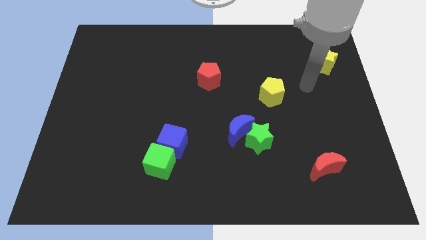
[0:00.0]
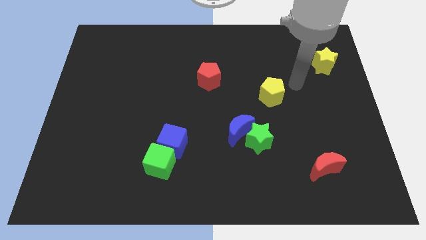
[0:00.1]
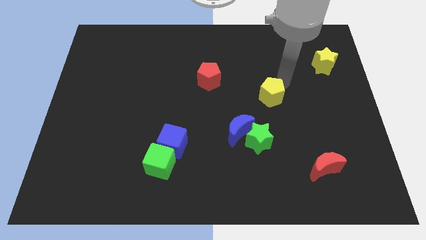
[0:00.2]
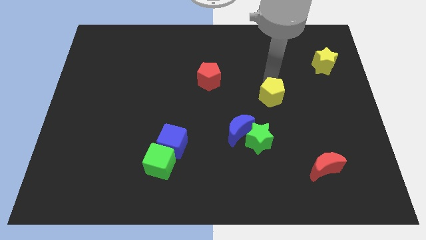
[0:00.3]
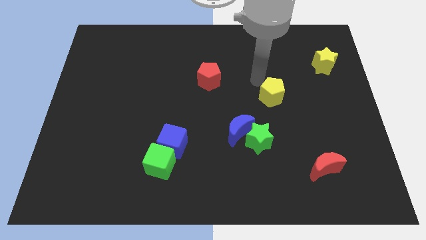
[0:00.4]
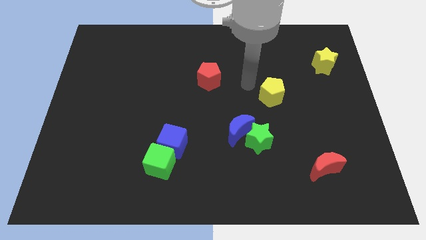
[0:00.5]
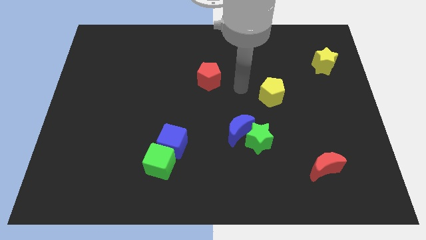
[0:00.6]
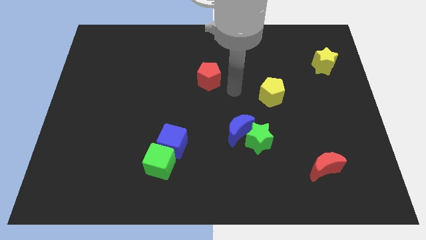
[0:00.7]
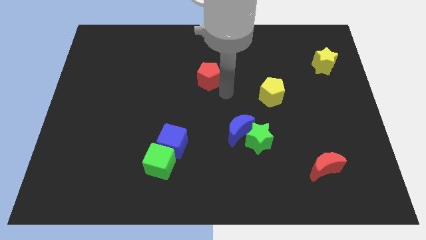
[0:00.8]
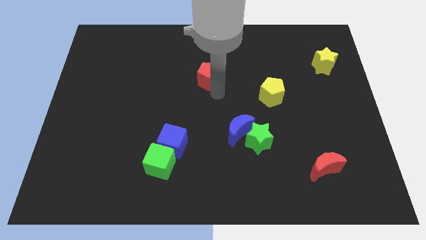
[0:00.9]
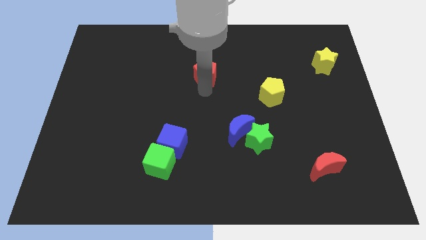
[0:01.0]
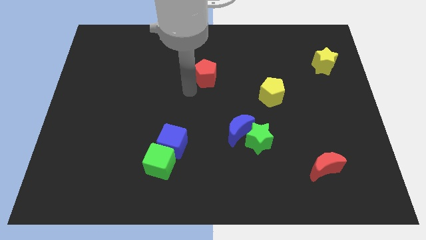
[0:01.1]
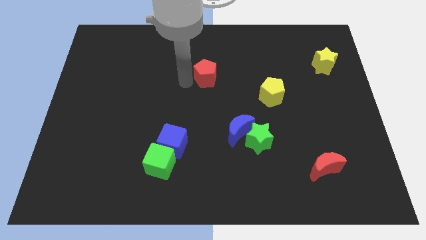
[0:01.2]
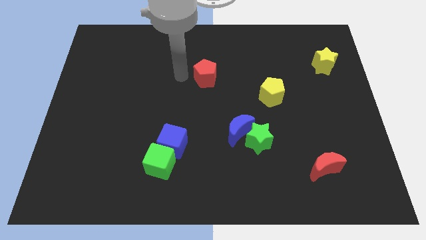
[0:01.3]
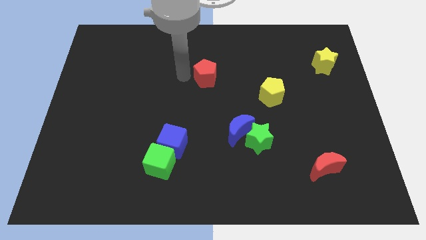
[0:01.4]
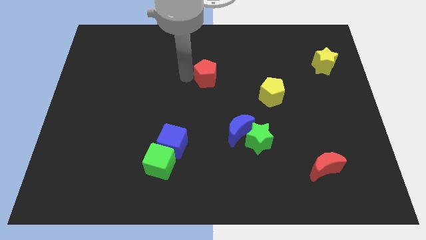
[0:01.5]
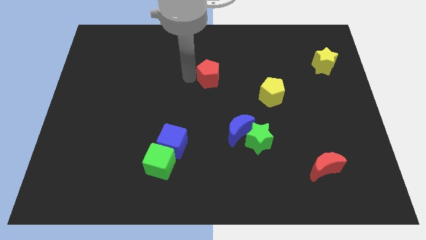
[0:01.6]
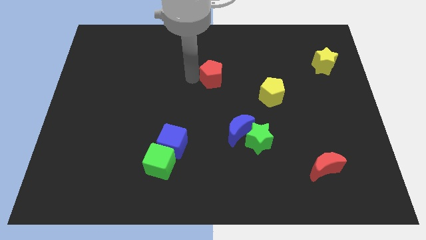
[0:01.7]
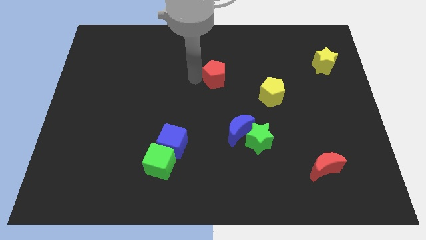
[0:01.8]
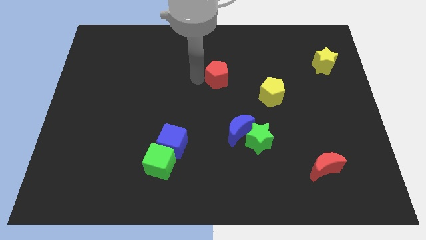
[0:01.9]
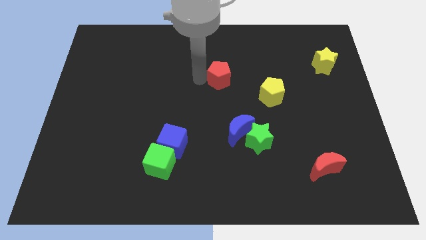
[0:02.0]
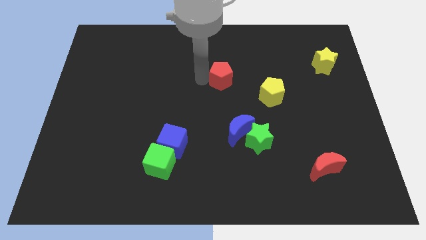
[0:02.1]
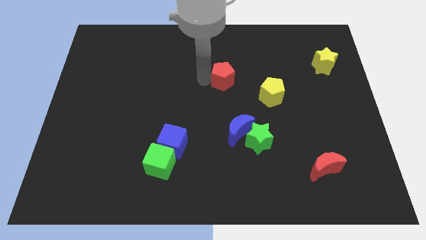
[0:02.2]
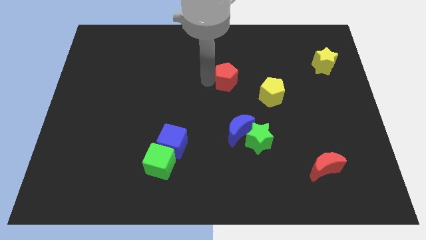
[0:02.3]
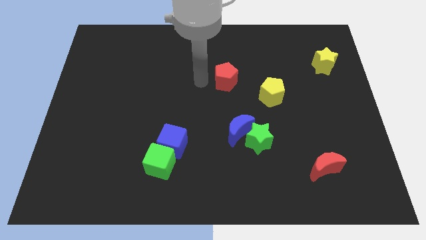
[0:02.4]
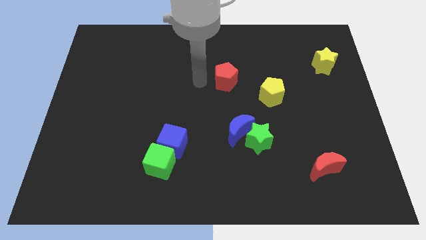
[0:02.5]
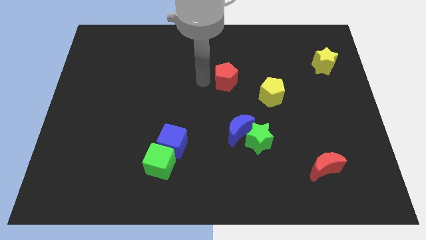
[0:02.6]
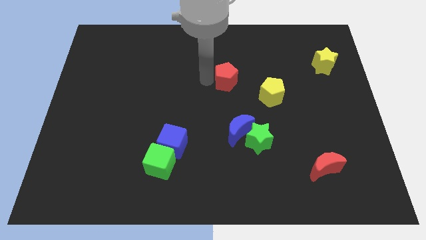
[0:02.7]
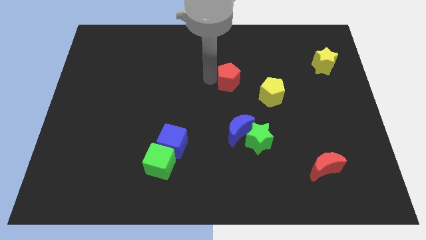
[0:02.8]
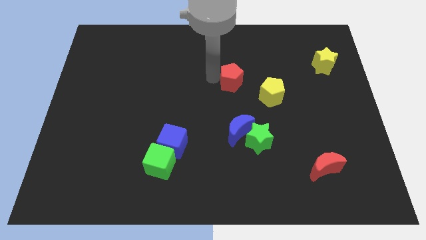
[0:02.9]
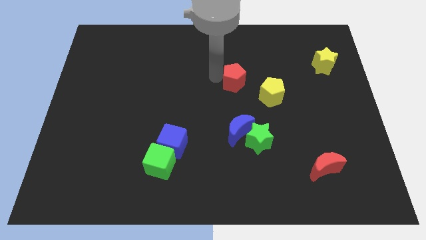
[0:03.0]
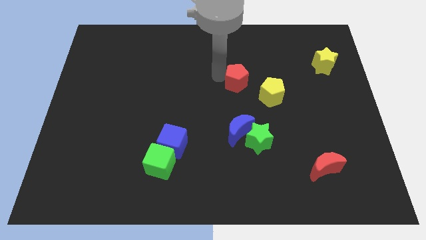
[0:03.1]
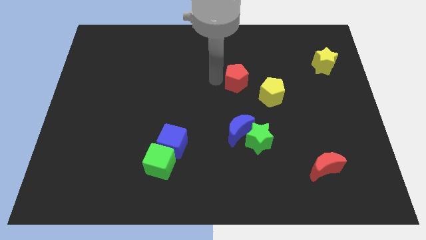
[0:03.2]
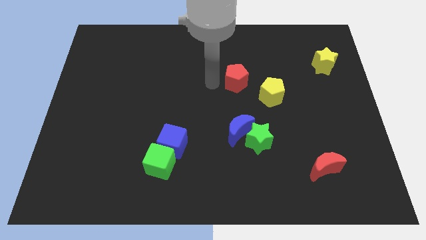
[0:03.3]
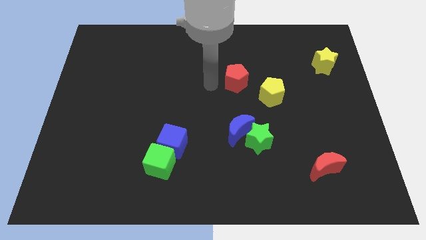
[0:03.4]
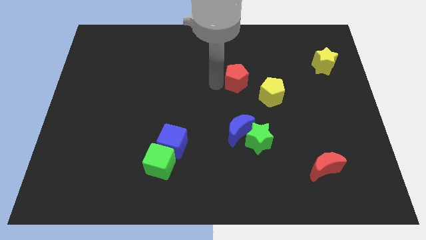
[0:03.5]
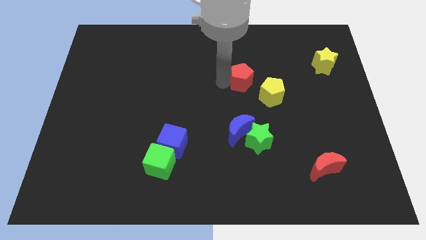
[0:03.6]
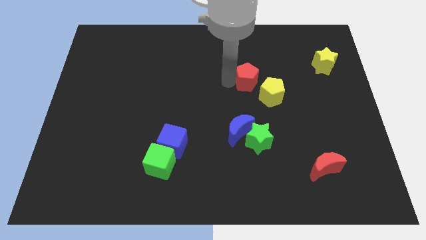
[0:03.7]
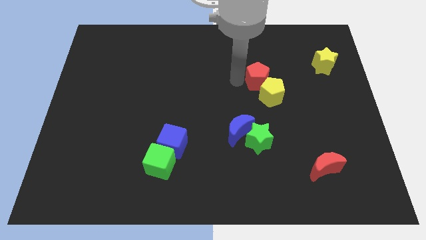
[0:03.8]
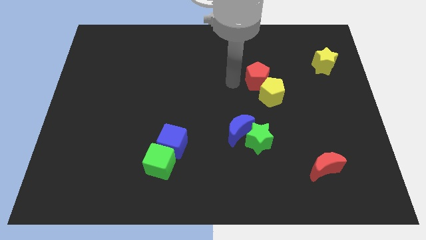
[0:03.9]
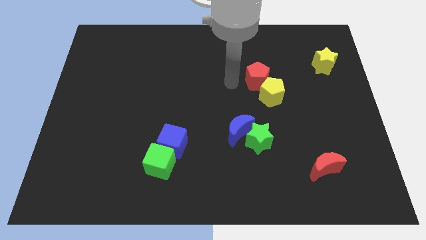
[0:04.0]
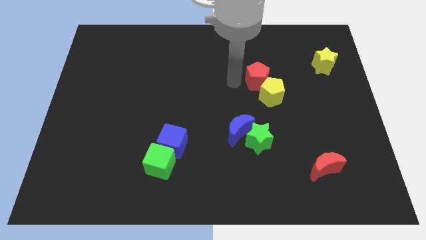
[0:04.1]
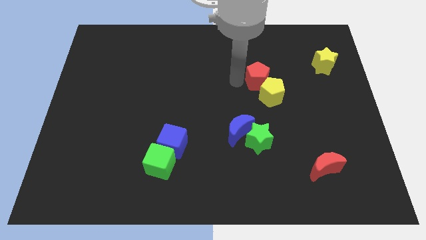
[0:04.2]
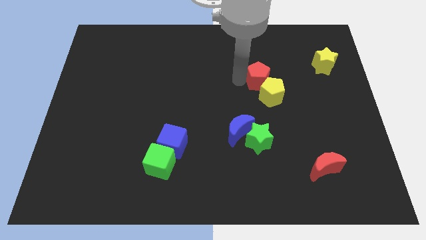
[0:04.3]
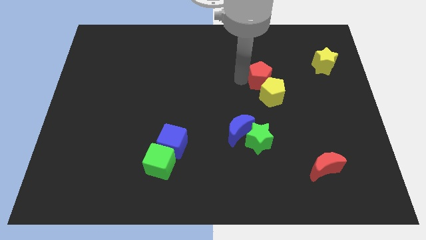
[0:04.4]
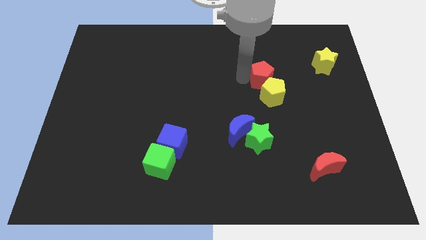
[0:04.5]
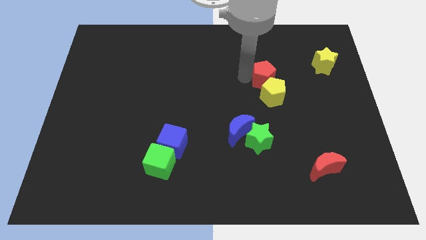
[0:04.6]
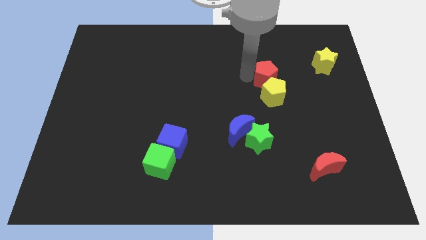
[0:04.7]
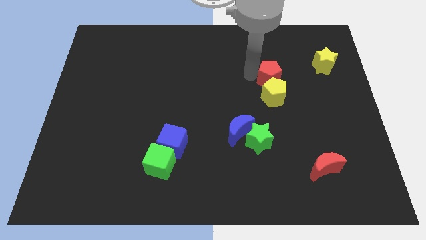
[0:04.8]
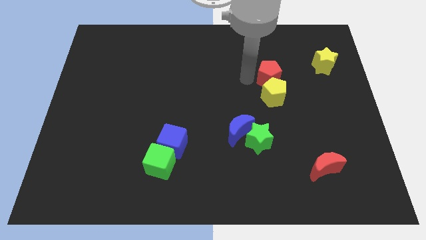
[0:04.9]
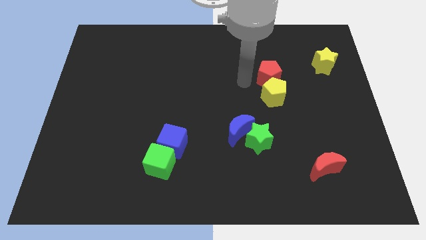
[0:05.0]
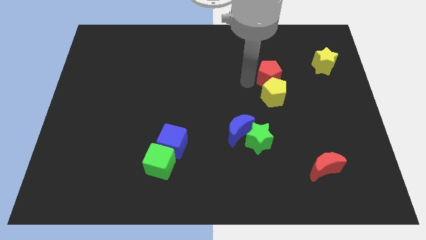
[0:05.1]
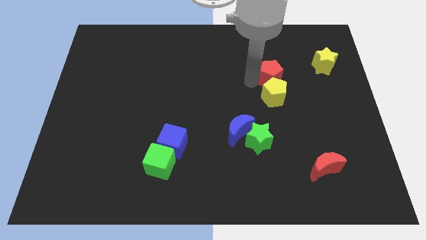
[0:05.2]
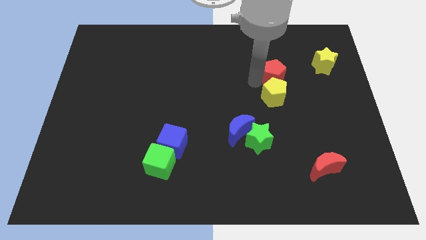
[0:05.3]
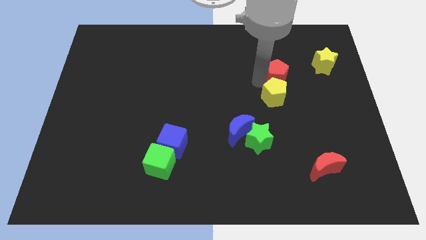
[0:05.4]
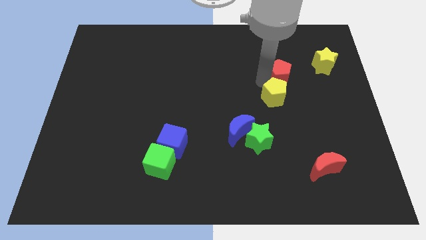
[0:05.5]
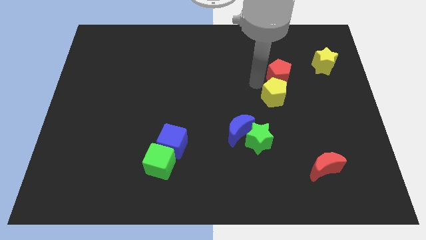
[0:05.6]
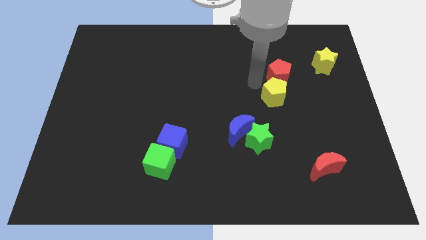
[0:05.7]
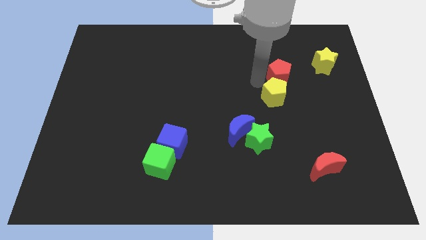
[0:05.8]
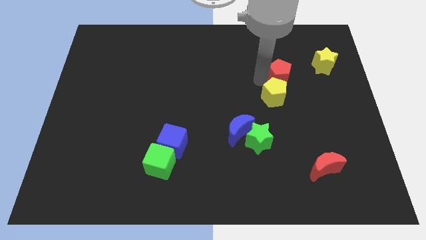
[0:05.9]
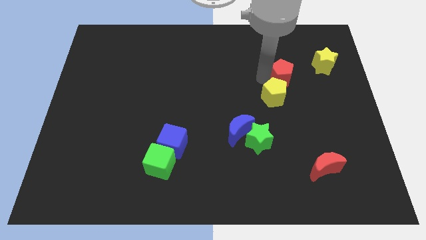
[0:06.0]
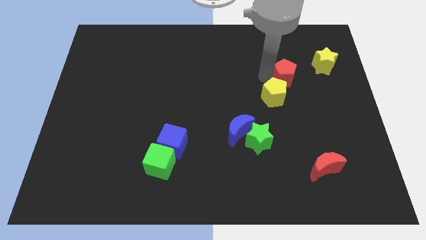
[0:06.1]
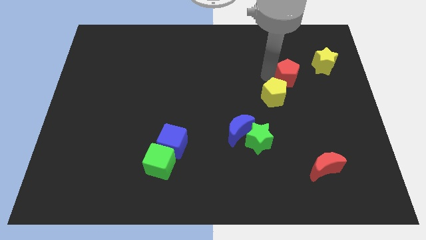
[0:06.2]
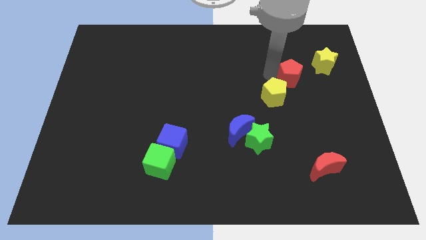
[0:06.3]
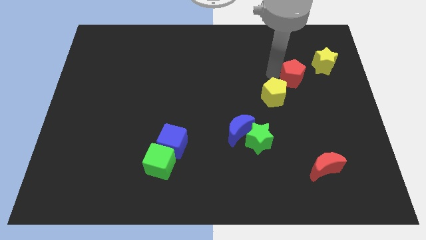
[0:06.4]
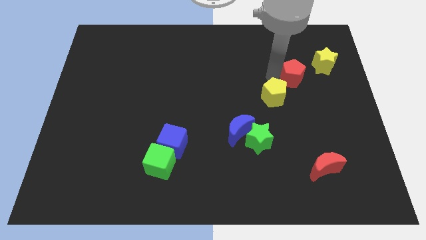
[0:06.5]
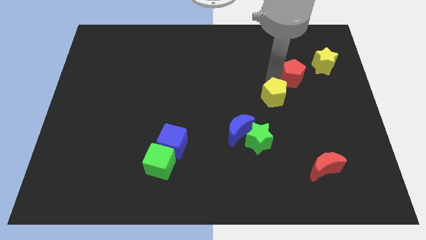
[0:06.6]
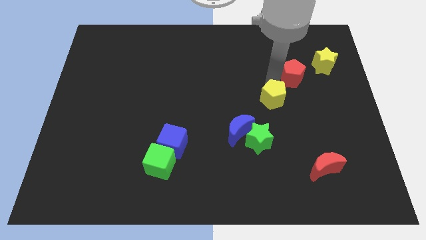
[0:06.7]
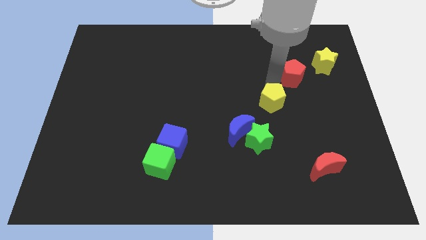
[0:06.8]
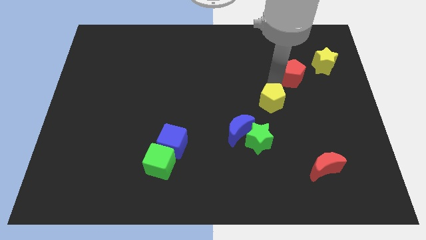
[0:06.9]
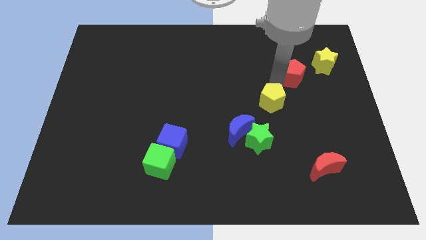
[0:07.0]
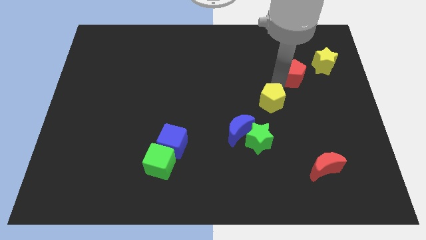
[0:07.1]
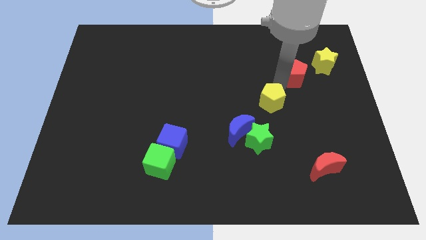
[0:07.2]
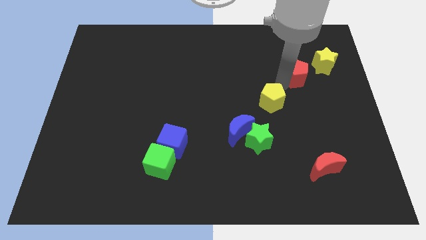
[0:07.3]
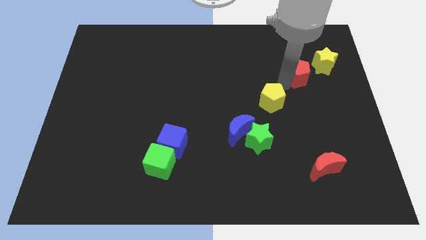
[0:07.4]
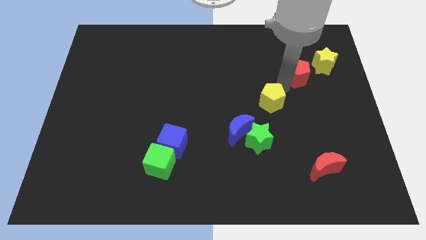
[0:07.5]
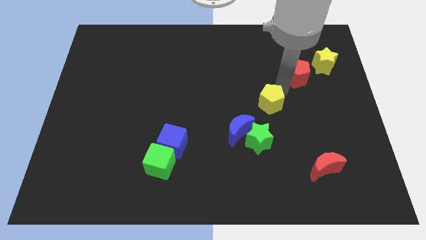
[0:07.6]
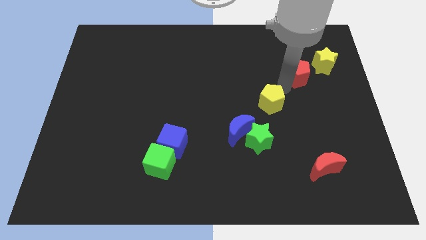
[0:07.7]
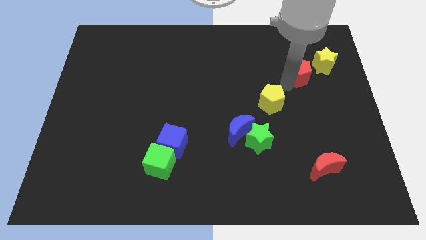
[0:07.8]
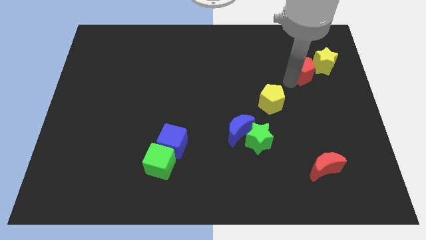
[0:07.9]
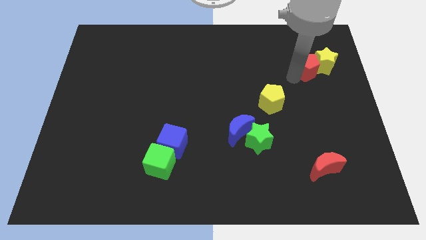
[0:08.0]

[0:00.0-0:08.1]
slide the red pentagon close to the yellow star
